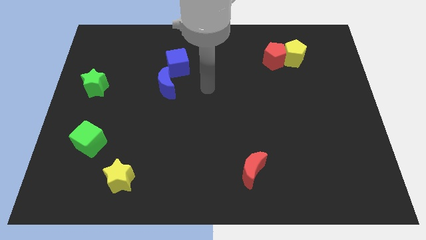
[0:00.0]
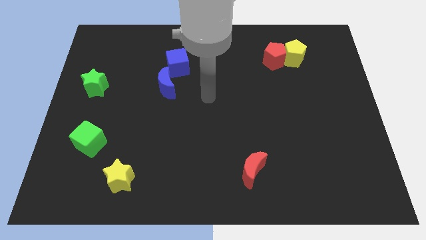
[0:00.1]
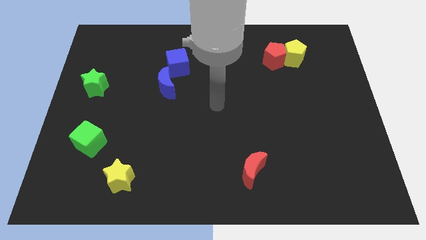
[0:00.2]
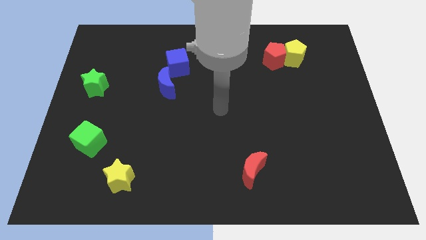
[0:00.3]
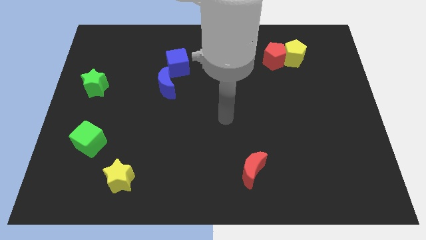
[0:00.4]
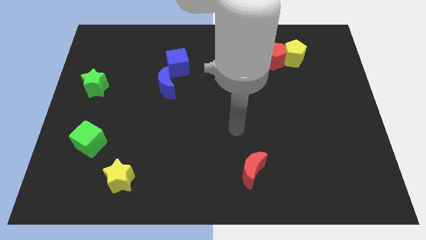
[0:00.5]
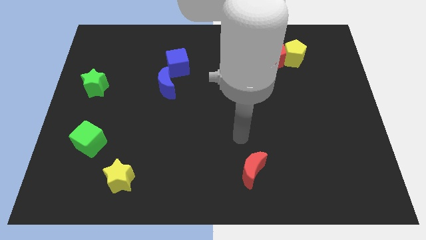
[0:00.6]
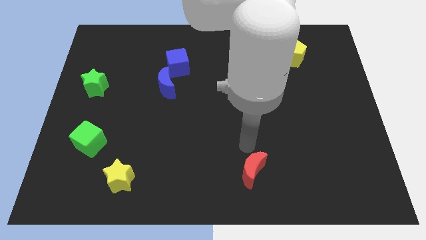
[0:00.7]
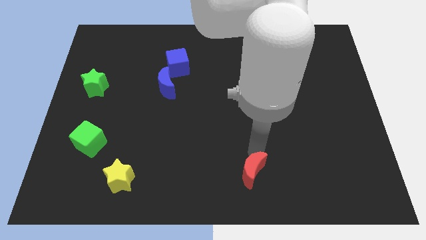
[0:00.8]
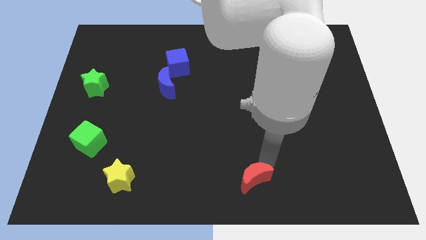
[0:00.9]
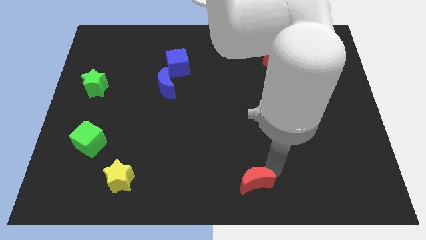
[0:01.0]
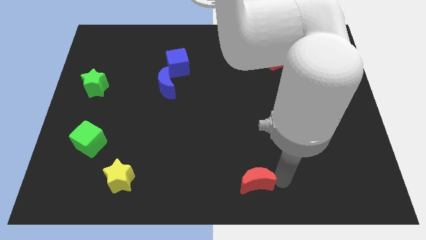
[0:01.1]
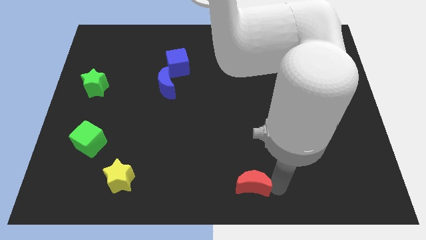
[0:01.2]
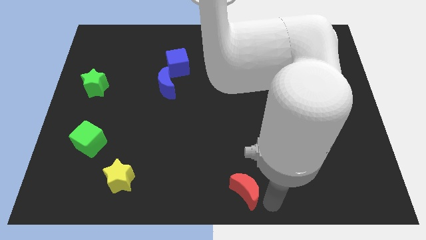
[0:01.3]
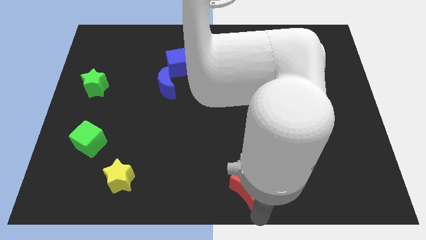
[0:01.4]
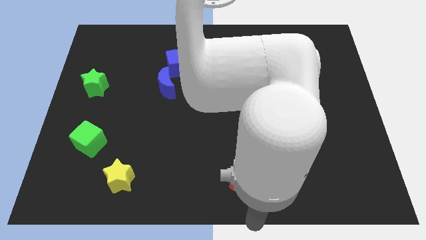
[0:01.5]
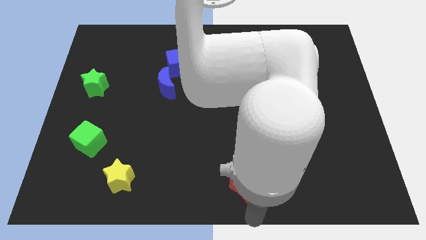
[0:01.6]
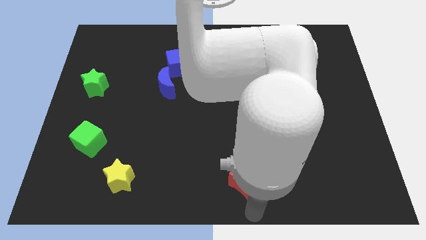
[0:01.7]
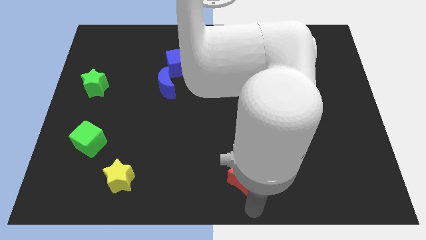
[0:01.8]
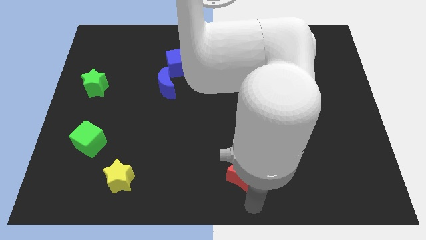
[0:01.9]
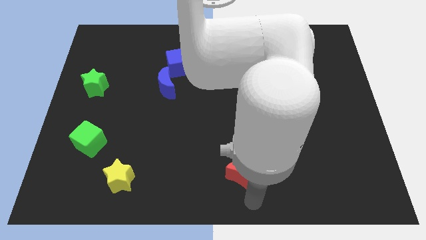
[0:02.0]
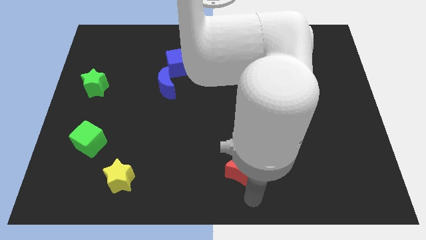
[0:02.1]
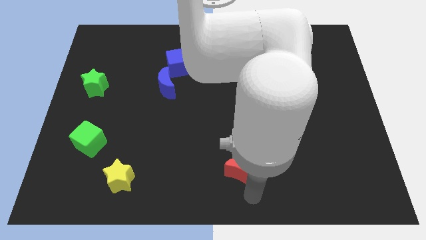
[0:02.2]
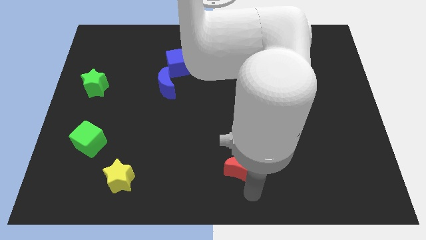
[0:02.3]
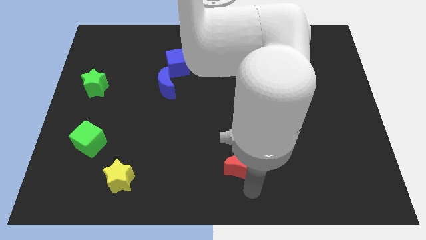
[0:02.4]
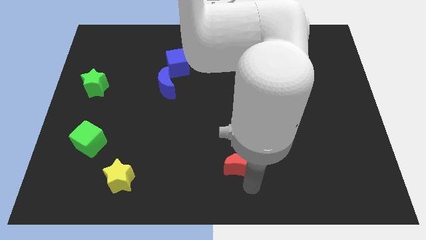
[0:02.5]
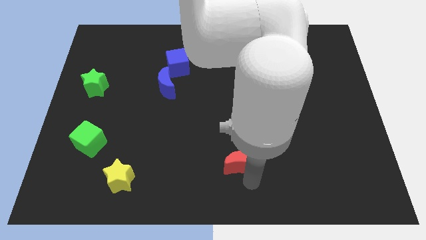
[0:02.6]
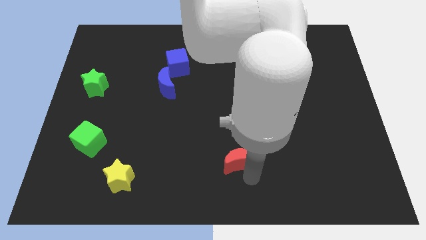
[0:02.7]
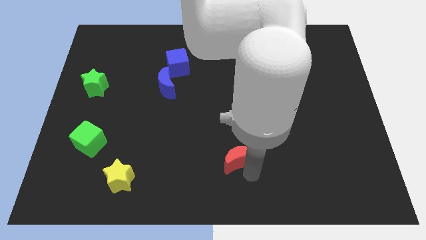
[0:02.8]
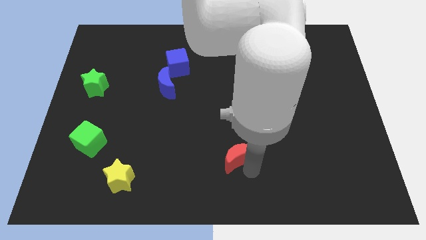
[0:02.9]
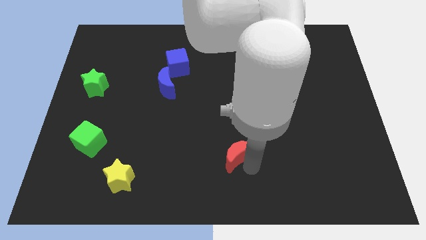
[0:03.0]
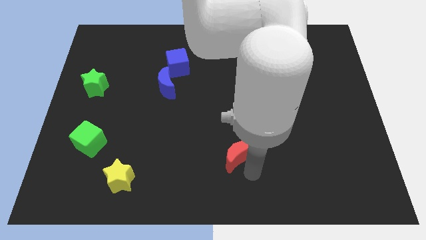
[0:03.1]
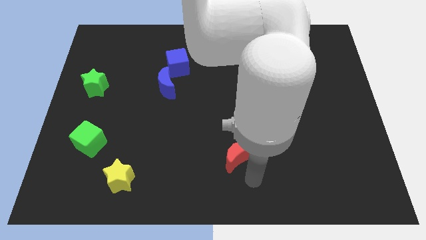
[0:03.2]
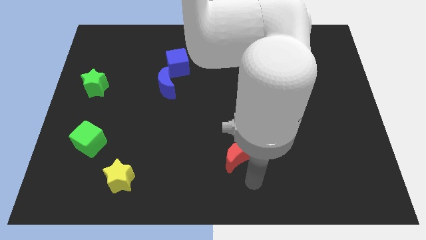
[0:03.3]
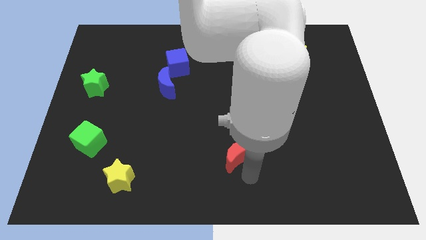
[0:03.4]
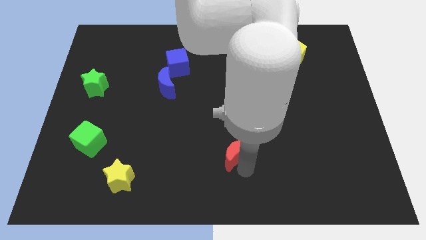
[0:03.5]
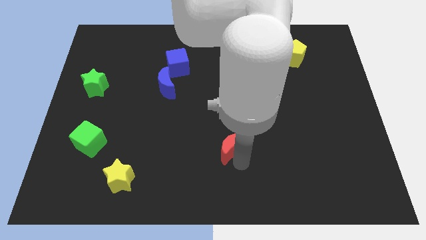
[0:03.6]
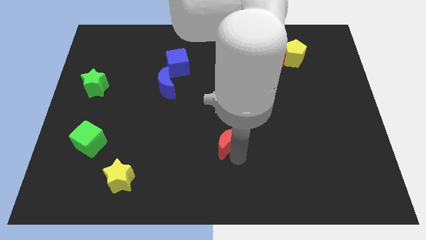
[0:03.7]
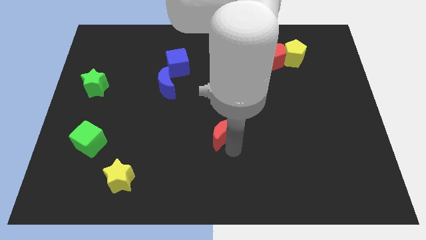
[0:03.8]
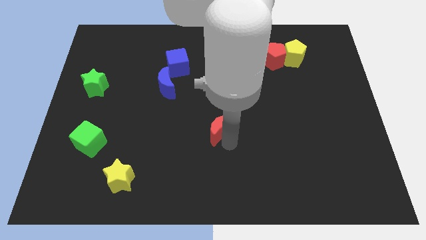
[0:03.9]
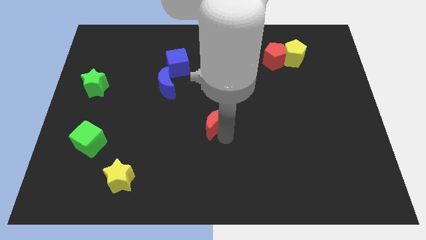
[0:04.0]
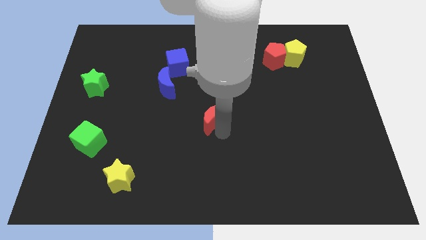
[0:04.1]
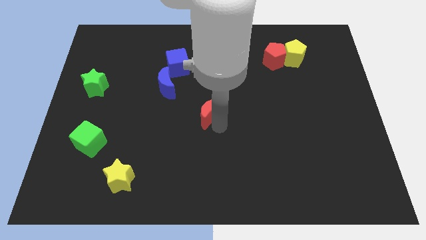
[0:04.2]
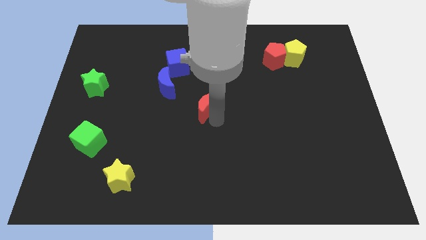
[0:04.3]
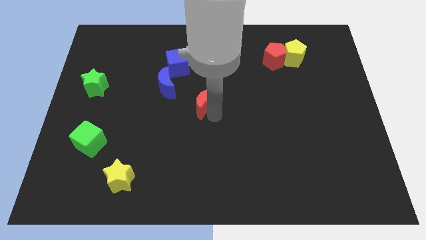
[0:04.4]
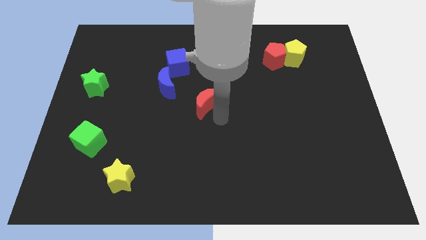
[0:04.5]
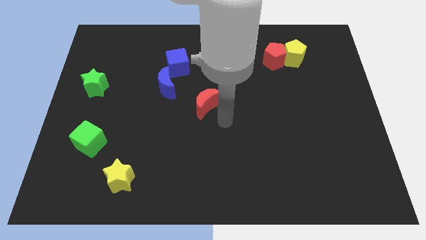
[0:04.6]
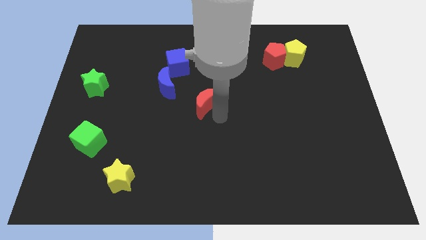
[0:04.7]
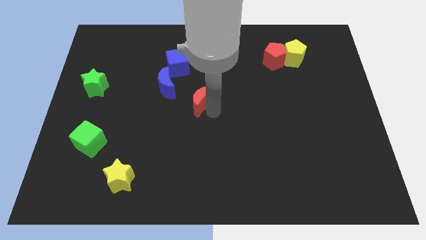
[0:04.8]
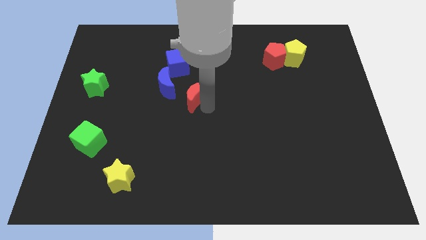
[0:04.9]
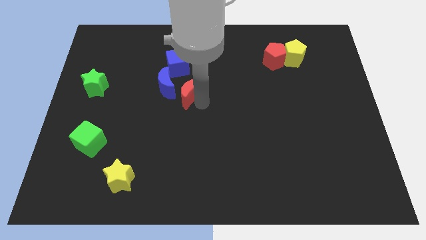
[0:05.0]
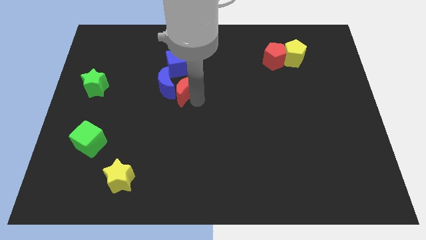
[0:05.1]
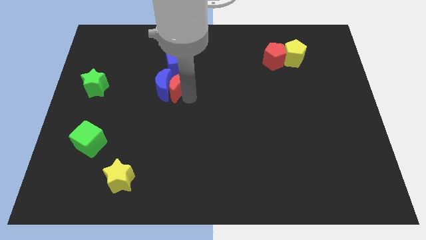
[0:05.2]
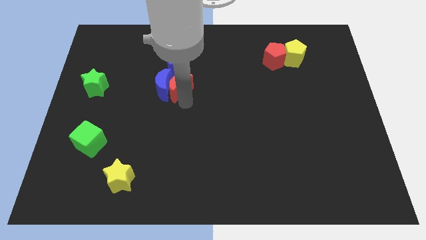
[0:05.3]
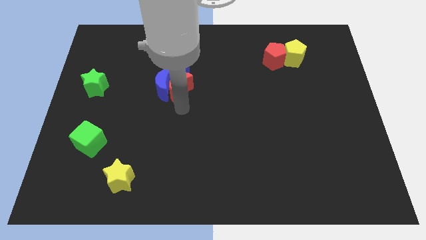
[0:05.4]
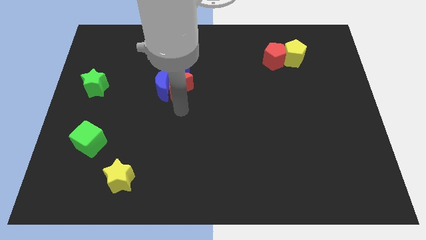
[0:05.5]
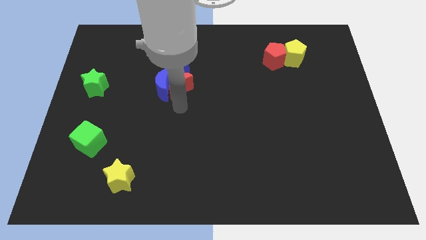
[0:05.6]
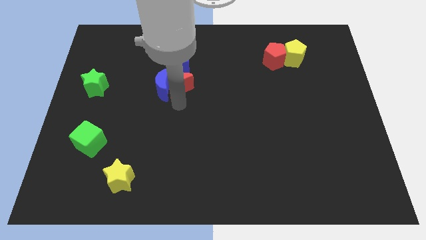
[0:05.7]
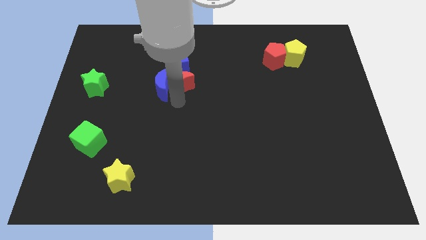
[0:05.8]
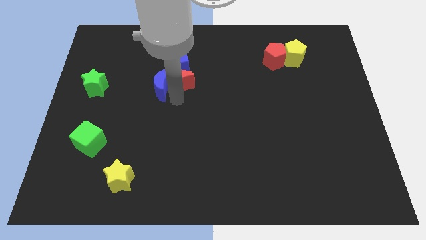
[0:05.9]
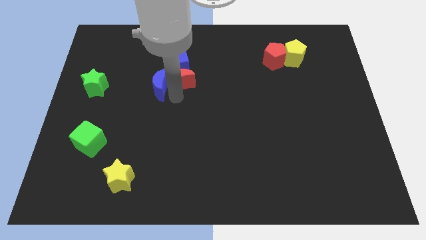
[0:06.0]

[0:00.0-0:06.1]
slide the red moon towards the blue cube

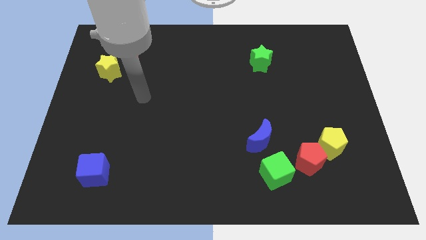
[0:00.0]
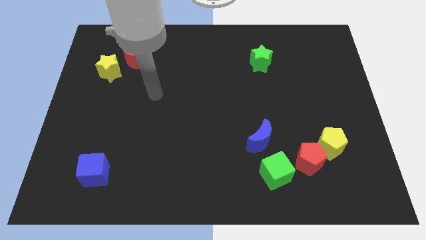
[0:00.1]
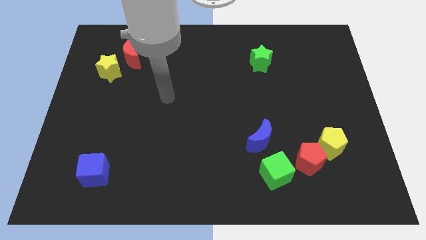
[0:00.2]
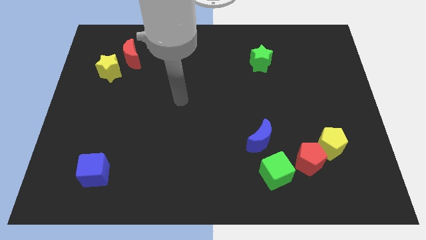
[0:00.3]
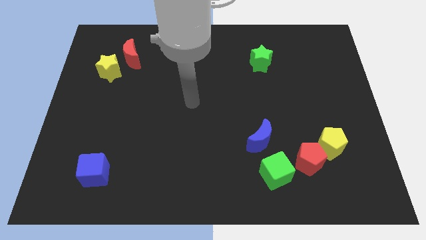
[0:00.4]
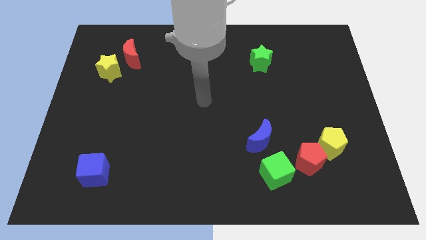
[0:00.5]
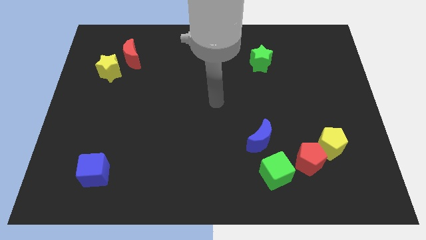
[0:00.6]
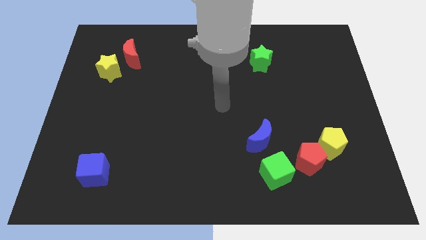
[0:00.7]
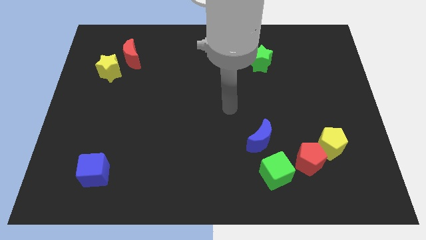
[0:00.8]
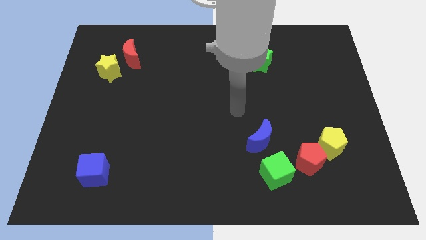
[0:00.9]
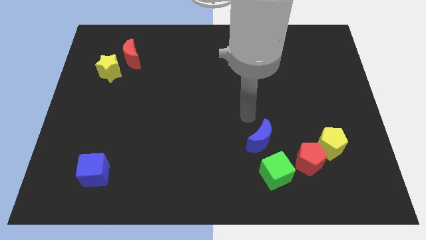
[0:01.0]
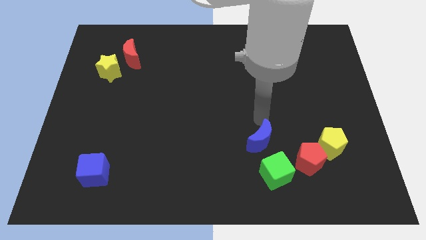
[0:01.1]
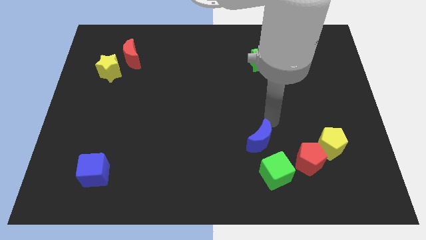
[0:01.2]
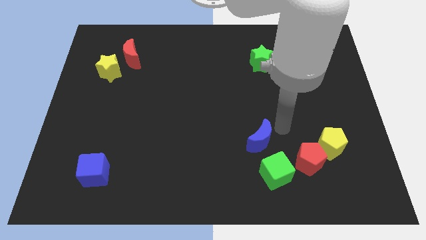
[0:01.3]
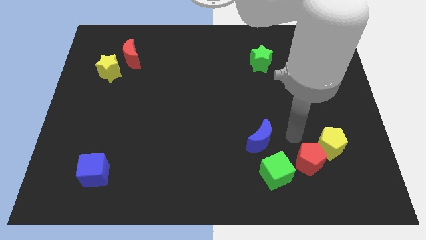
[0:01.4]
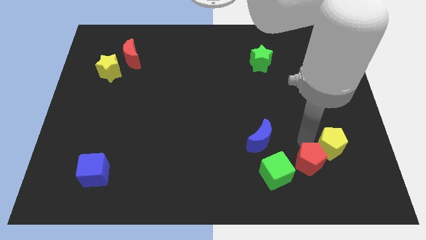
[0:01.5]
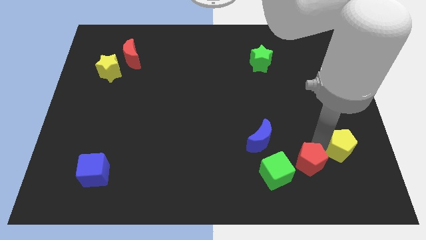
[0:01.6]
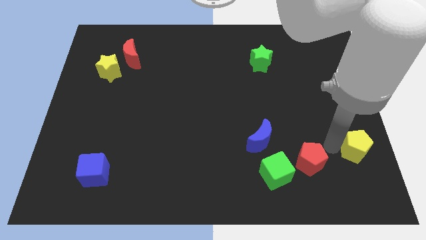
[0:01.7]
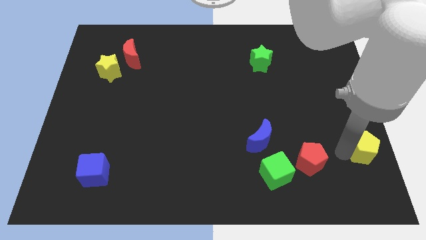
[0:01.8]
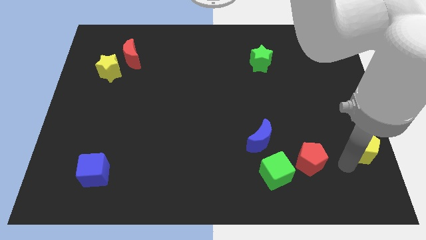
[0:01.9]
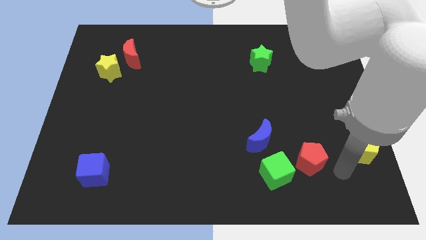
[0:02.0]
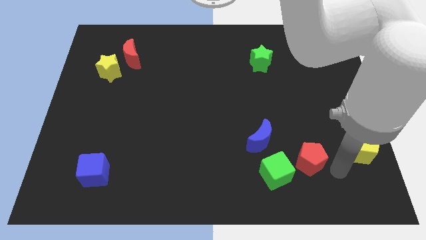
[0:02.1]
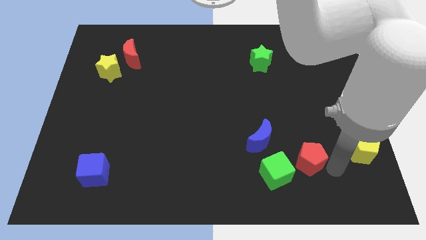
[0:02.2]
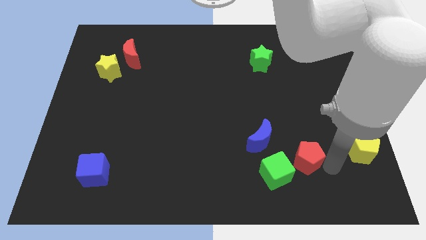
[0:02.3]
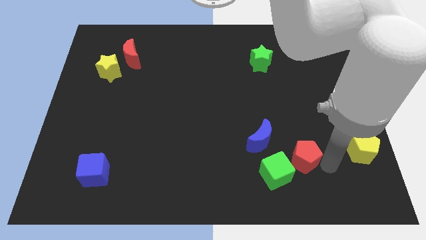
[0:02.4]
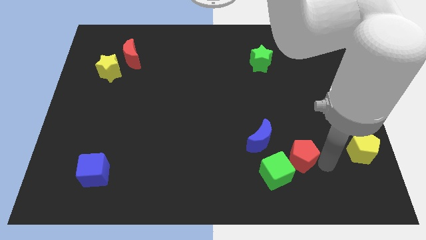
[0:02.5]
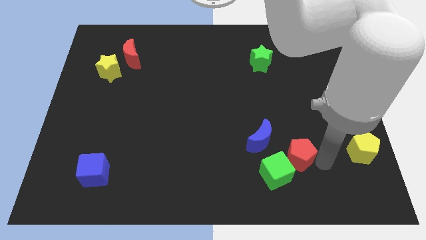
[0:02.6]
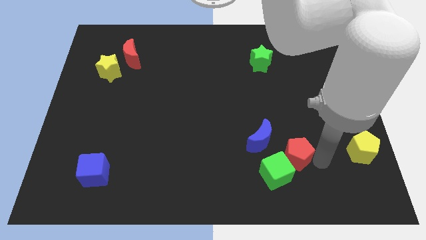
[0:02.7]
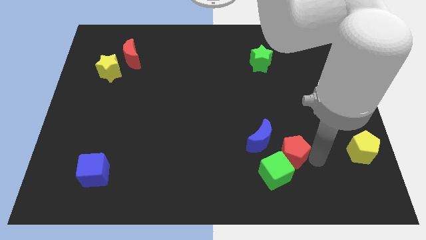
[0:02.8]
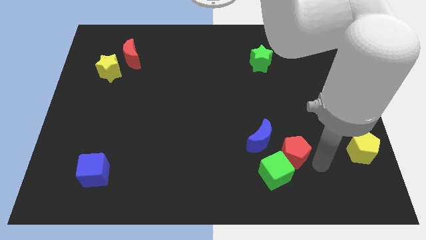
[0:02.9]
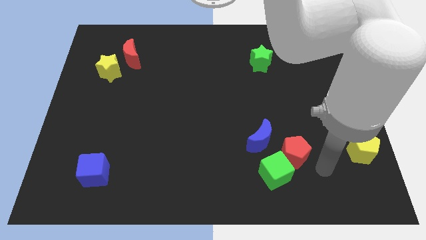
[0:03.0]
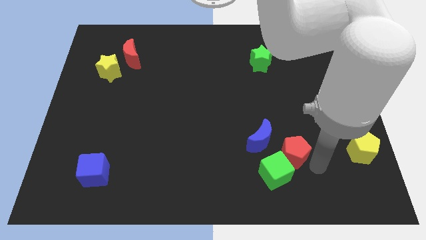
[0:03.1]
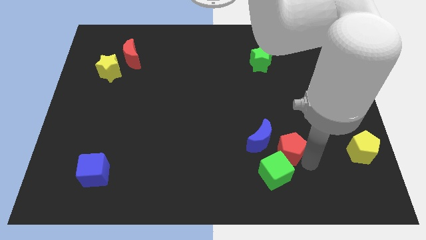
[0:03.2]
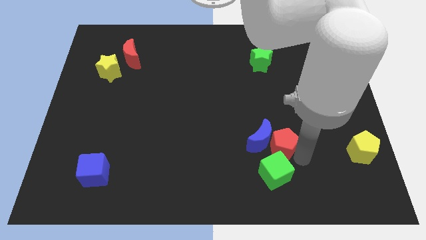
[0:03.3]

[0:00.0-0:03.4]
move the red pentagon towards the blue moon
